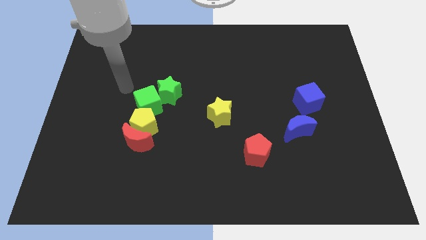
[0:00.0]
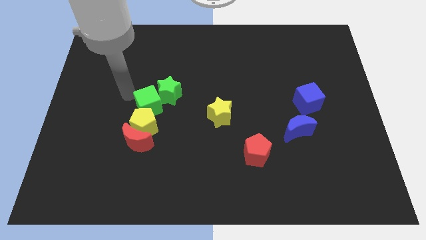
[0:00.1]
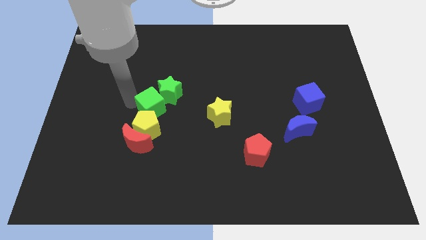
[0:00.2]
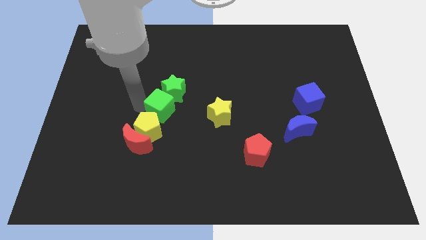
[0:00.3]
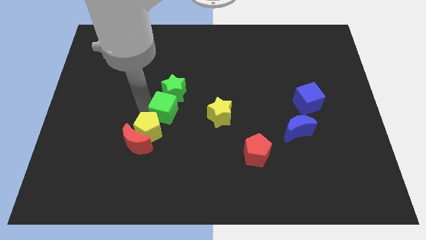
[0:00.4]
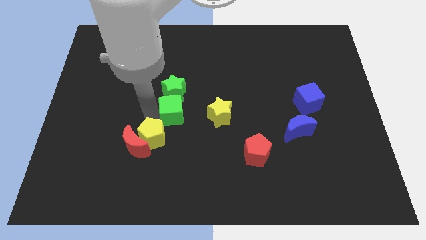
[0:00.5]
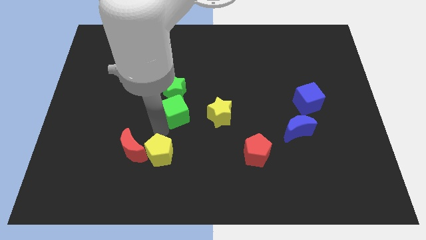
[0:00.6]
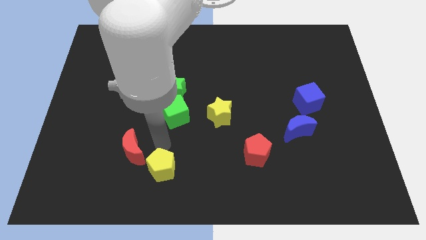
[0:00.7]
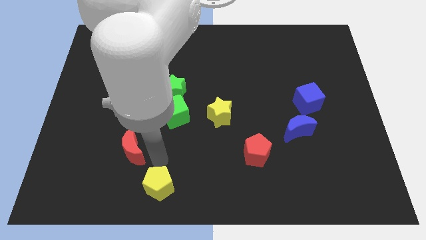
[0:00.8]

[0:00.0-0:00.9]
move the red moon away from the yellow pentagon

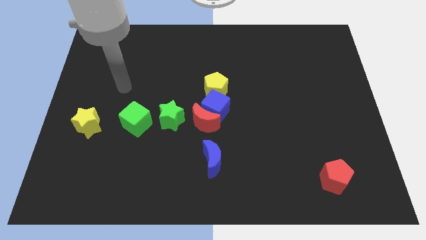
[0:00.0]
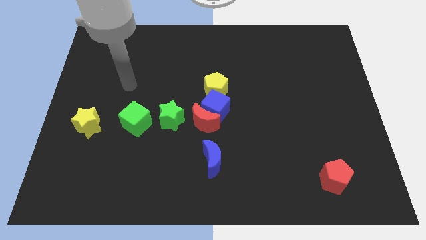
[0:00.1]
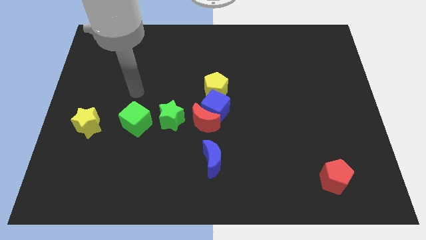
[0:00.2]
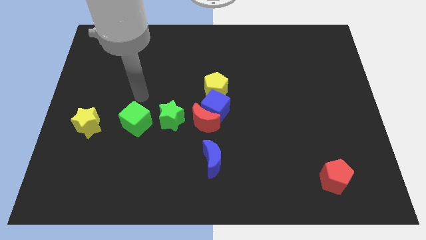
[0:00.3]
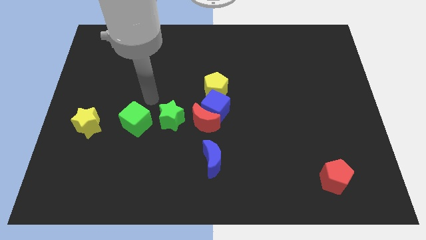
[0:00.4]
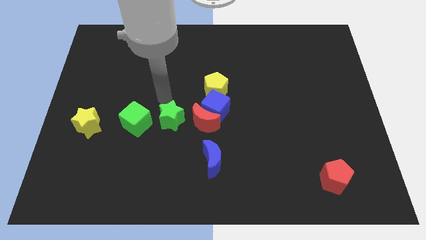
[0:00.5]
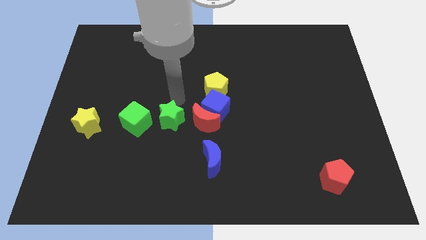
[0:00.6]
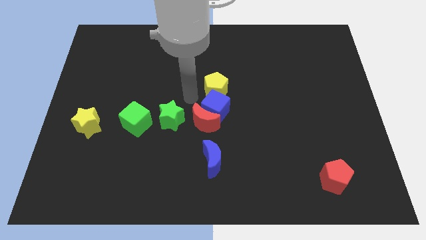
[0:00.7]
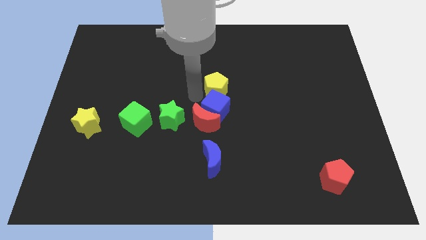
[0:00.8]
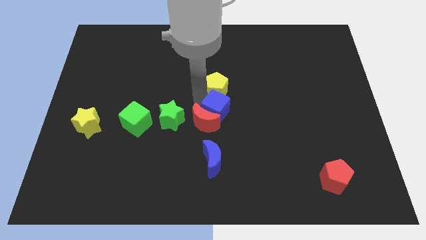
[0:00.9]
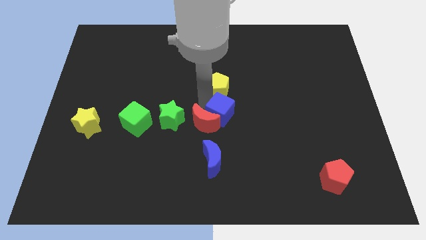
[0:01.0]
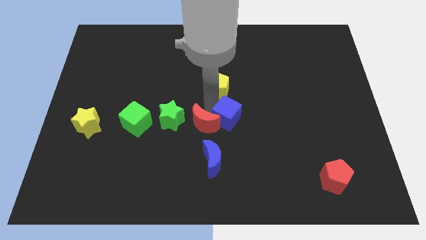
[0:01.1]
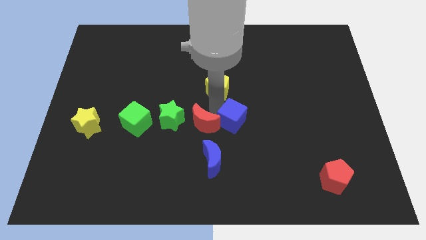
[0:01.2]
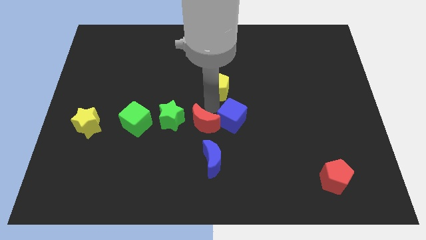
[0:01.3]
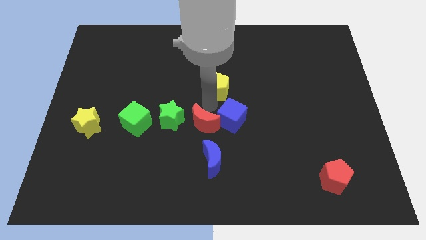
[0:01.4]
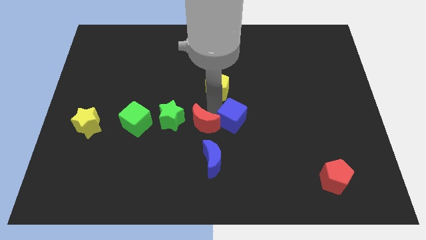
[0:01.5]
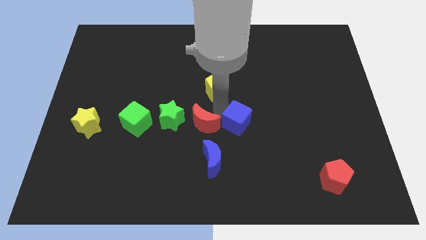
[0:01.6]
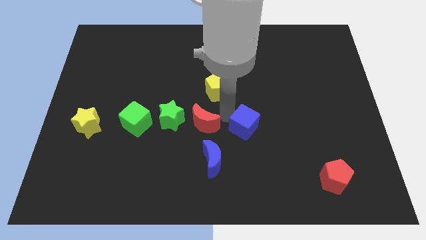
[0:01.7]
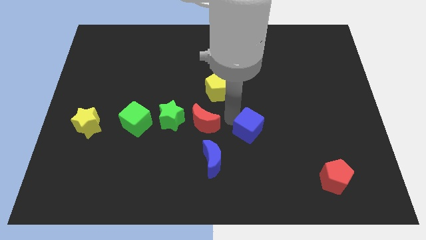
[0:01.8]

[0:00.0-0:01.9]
move the blue cube away from the red moon and yellow pentagon

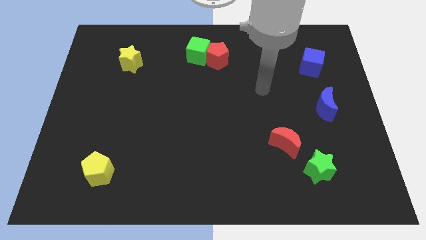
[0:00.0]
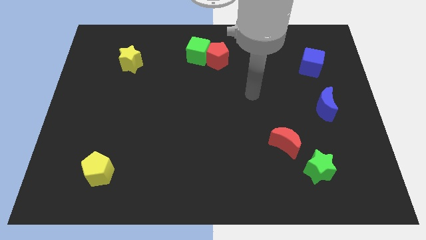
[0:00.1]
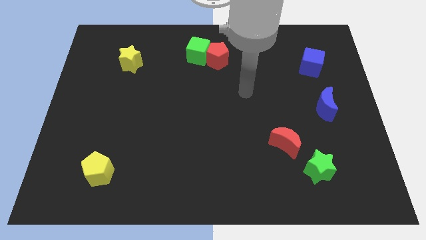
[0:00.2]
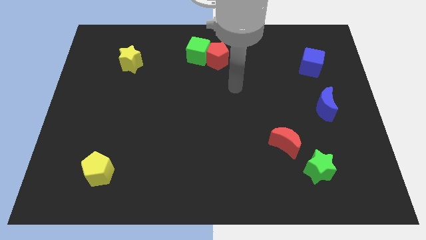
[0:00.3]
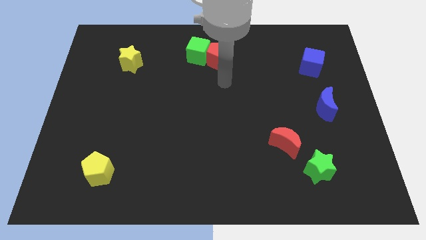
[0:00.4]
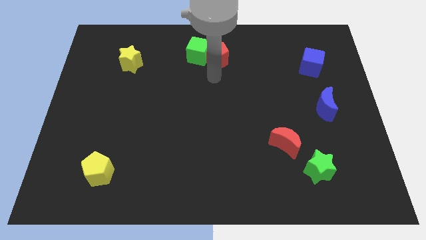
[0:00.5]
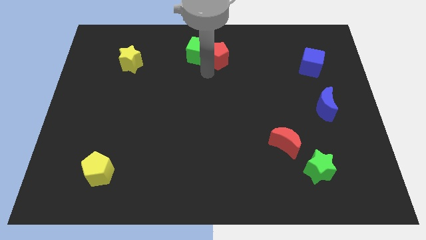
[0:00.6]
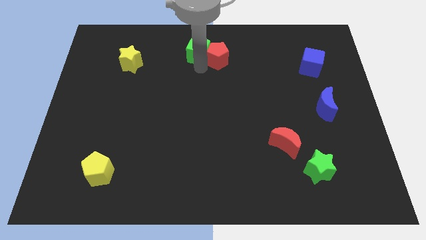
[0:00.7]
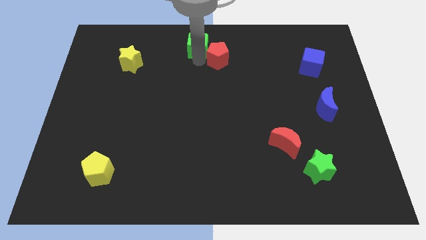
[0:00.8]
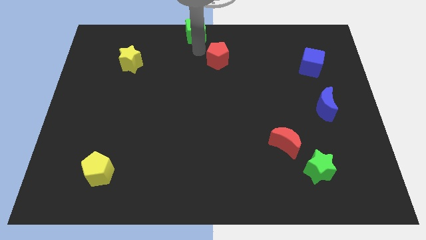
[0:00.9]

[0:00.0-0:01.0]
move the red pentagon away from the green cube

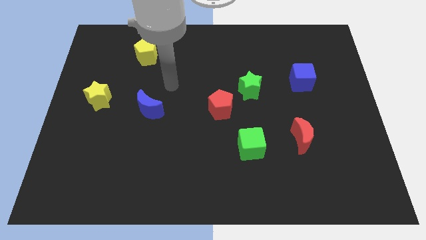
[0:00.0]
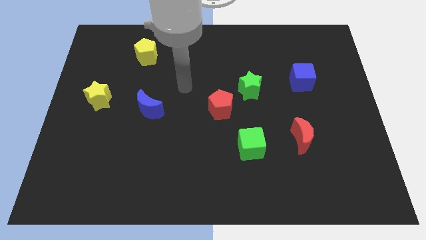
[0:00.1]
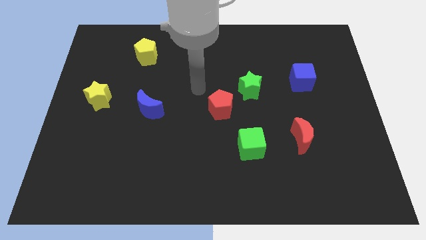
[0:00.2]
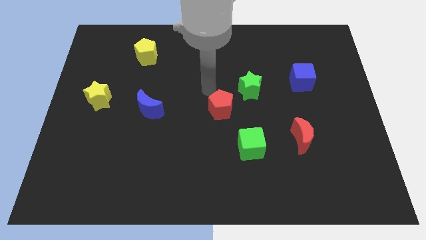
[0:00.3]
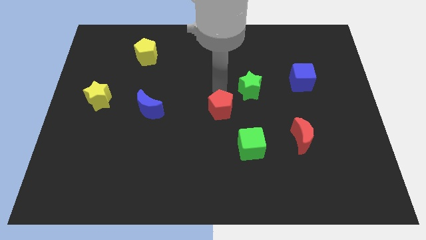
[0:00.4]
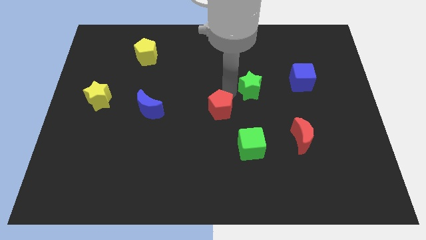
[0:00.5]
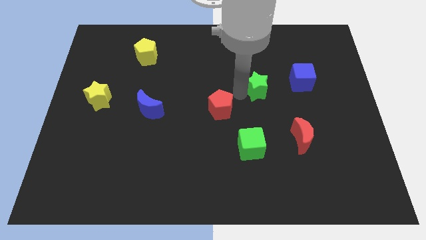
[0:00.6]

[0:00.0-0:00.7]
separate the red pentagon from the green star

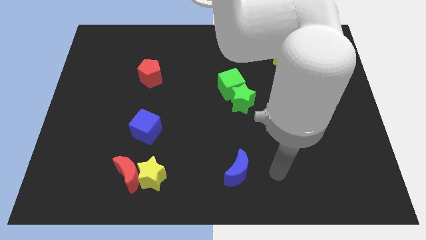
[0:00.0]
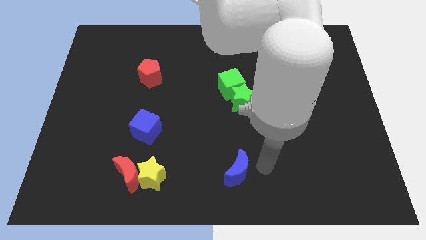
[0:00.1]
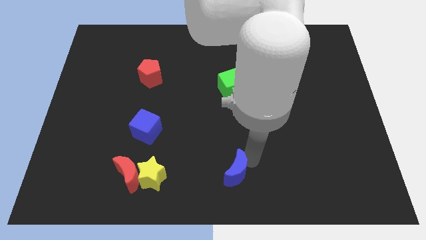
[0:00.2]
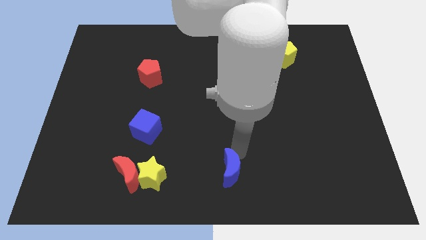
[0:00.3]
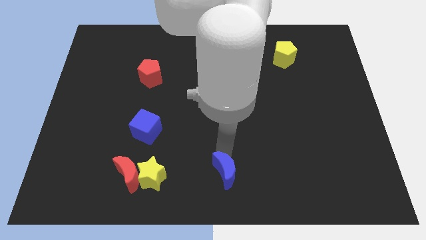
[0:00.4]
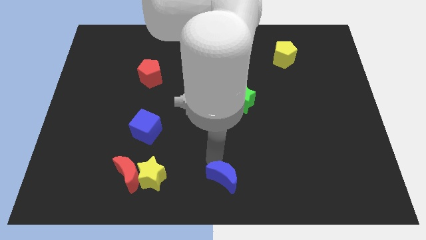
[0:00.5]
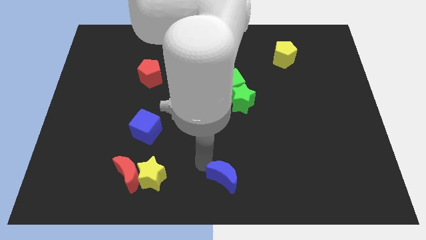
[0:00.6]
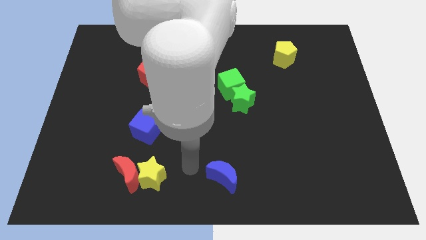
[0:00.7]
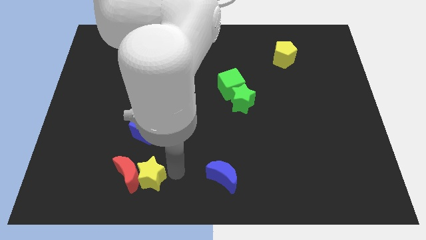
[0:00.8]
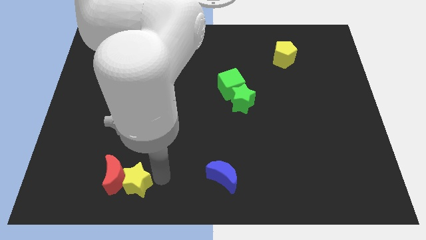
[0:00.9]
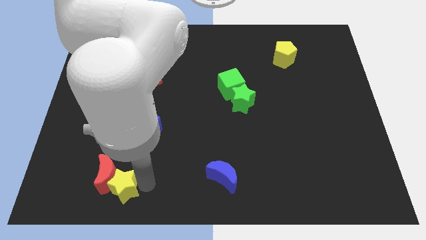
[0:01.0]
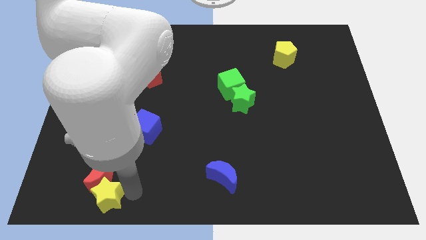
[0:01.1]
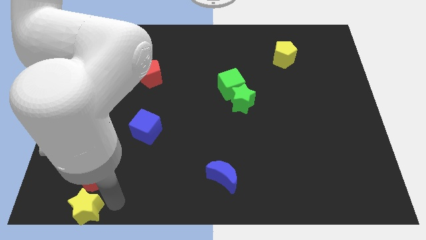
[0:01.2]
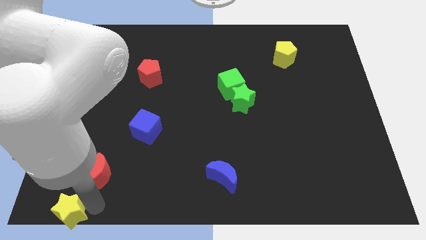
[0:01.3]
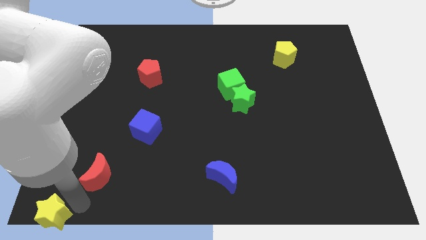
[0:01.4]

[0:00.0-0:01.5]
pull the red moon apart from the yellow star

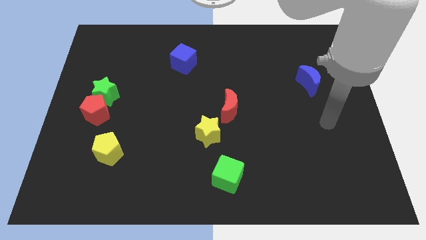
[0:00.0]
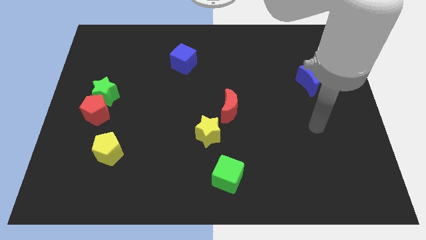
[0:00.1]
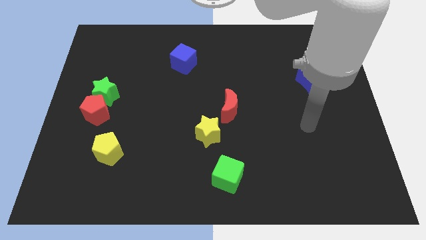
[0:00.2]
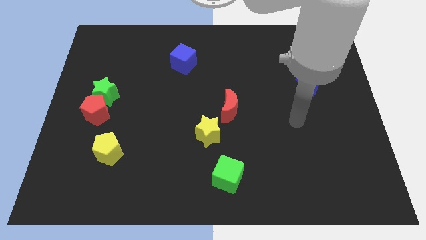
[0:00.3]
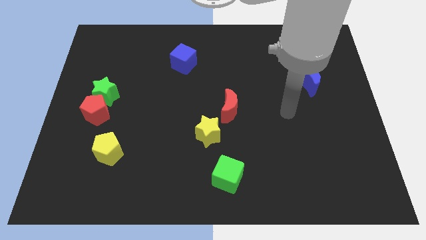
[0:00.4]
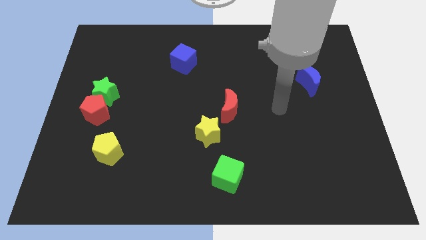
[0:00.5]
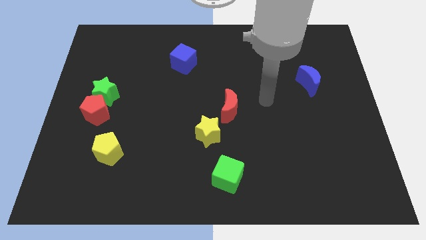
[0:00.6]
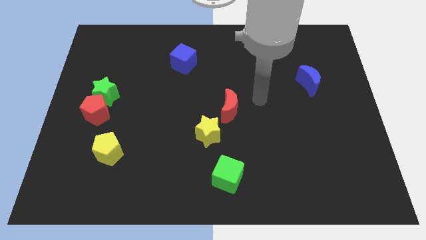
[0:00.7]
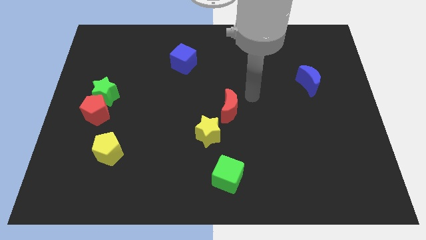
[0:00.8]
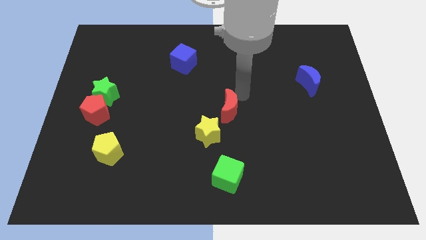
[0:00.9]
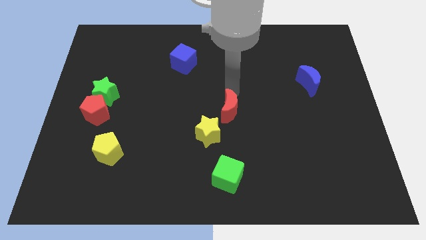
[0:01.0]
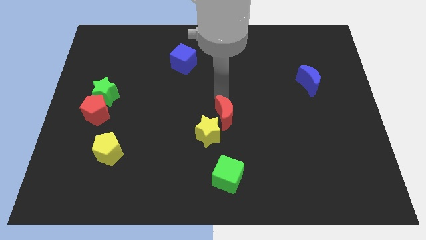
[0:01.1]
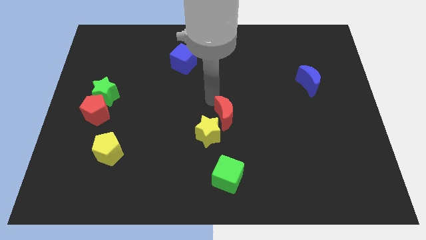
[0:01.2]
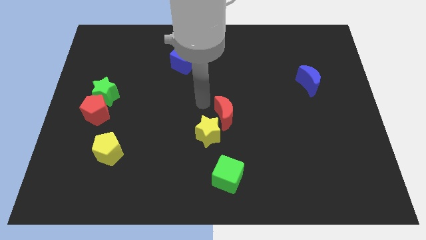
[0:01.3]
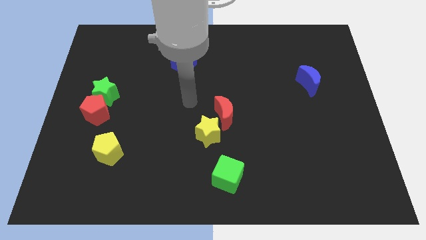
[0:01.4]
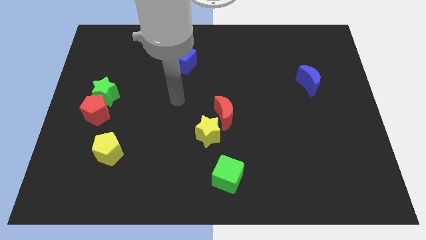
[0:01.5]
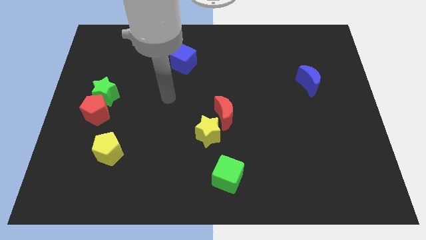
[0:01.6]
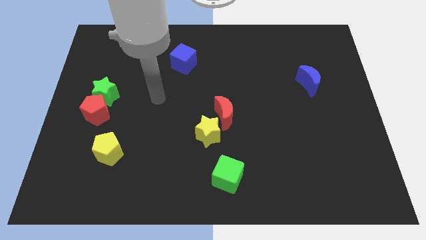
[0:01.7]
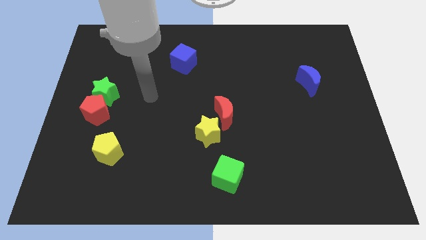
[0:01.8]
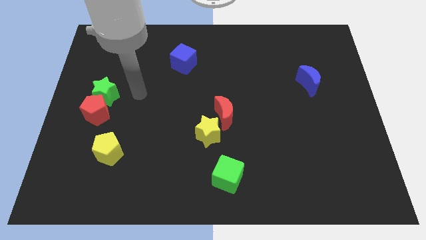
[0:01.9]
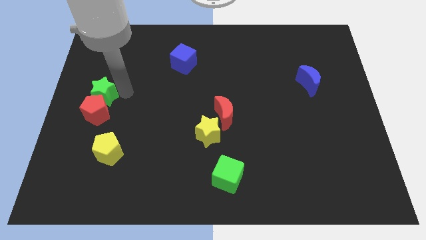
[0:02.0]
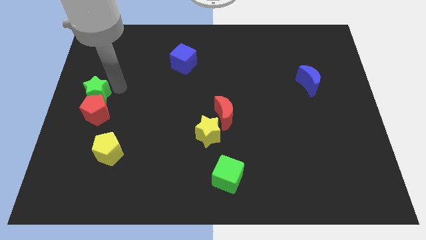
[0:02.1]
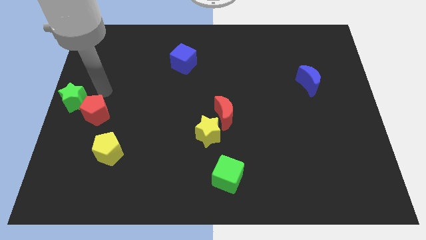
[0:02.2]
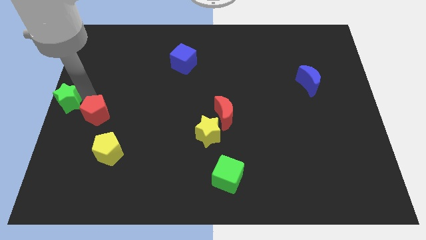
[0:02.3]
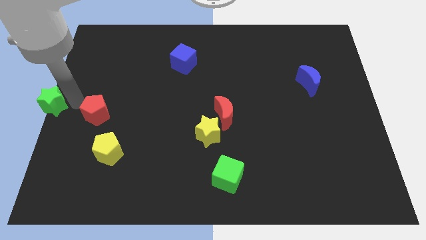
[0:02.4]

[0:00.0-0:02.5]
move the red pentagon away from the green star

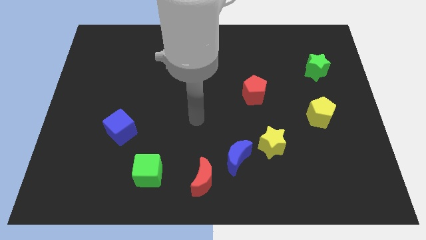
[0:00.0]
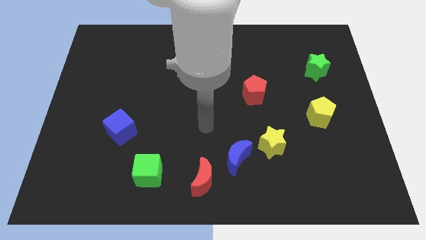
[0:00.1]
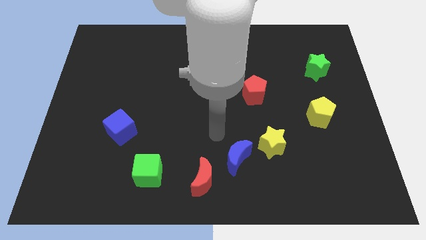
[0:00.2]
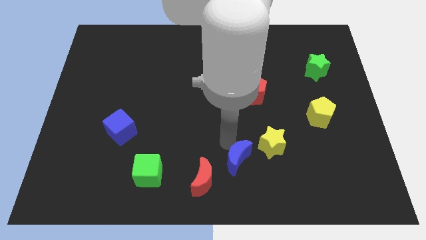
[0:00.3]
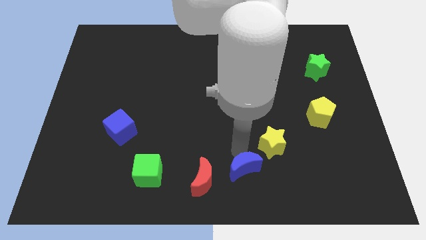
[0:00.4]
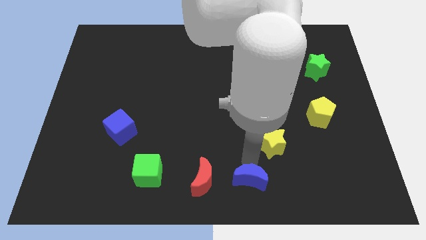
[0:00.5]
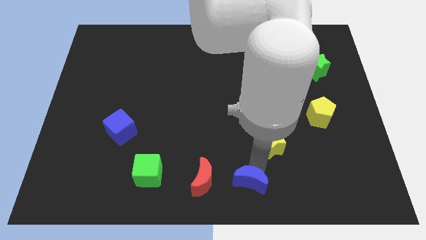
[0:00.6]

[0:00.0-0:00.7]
separate the yellow star from the blue moon
